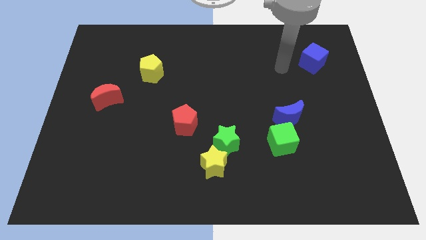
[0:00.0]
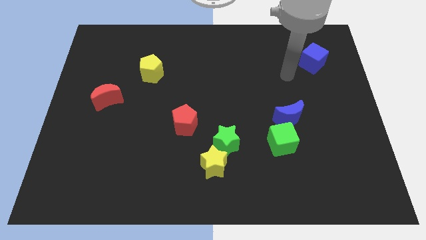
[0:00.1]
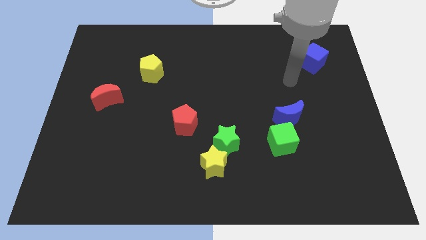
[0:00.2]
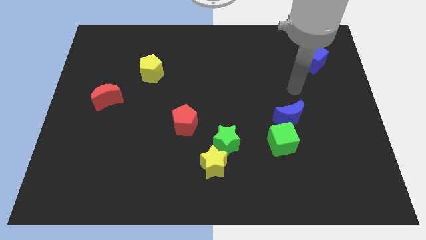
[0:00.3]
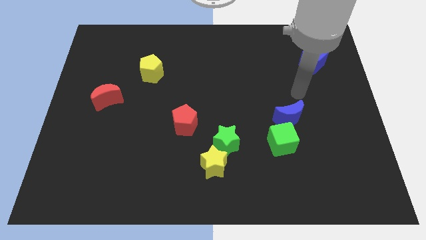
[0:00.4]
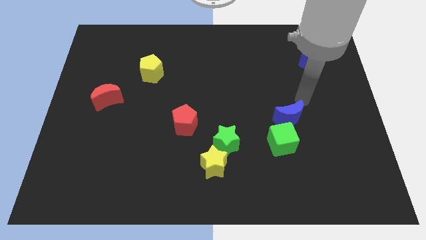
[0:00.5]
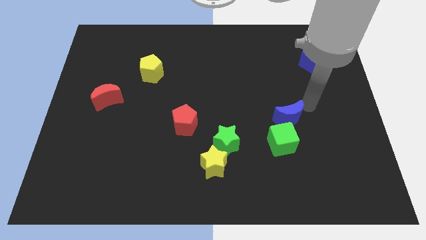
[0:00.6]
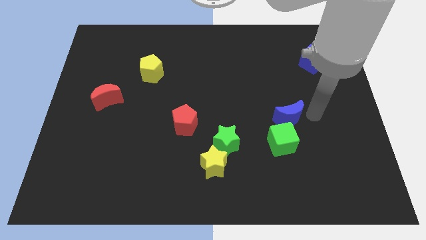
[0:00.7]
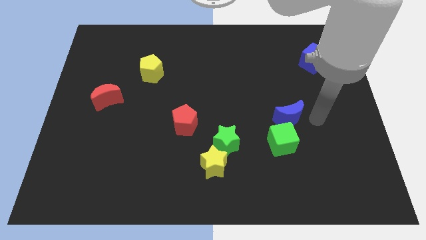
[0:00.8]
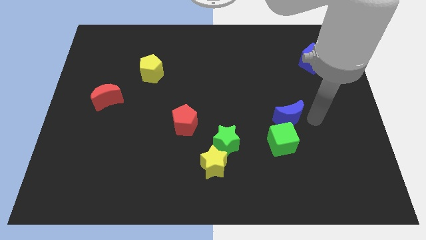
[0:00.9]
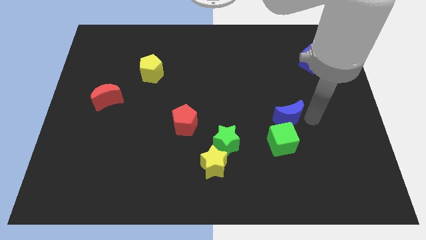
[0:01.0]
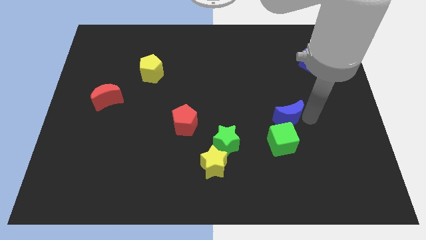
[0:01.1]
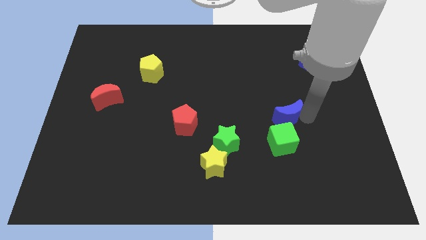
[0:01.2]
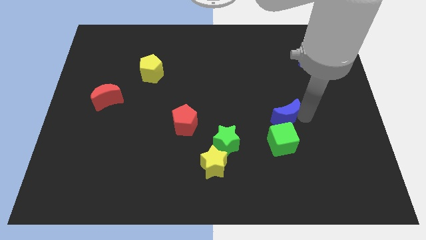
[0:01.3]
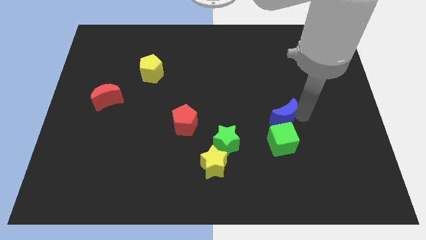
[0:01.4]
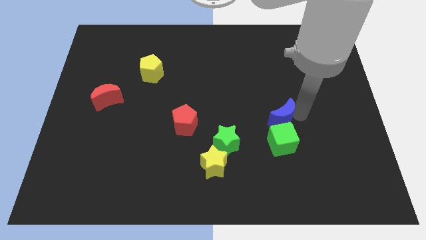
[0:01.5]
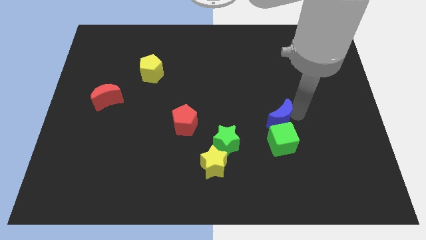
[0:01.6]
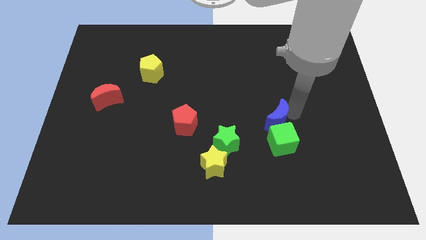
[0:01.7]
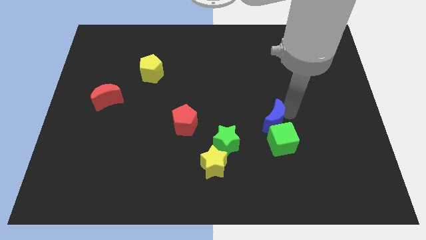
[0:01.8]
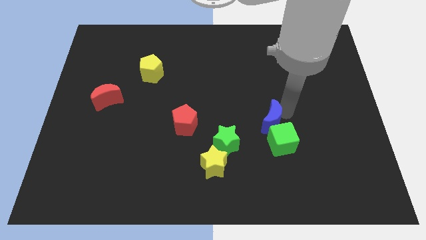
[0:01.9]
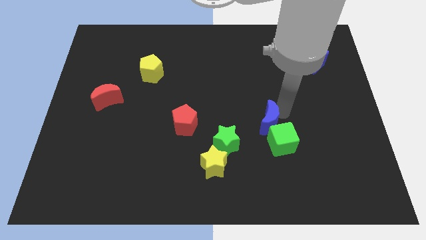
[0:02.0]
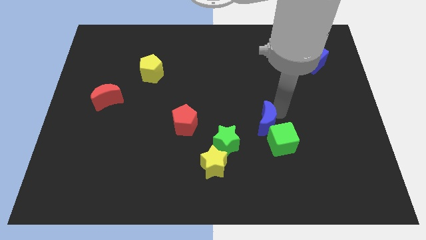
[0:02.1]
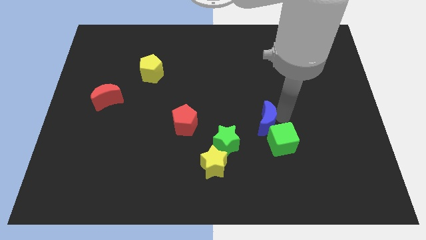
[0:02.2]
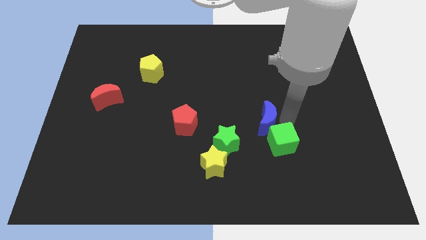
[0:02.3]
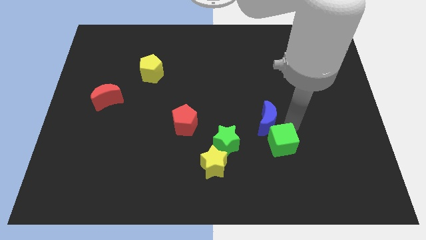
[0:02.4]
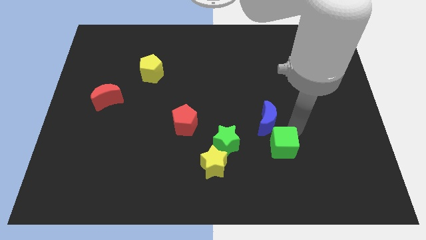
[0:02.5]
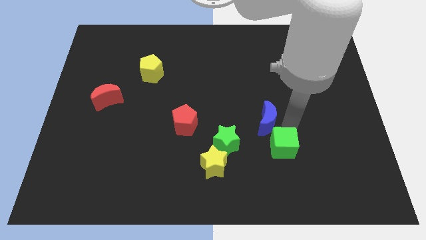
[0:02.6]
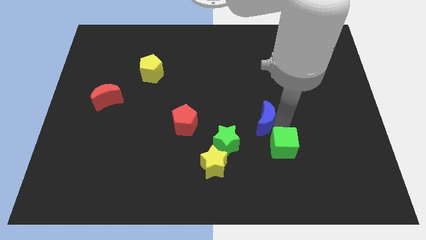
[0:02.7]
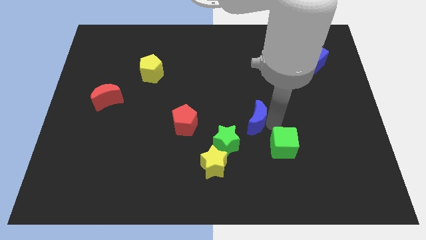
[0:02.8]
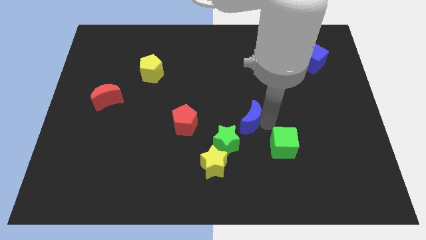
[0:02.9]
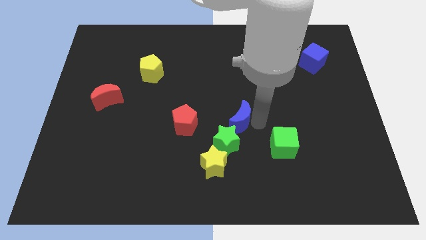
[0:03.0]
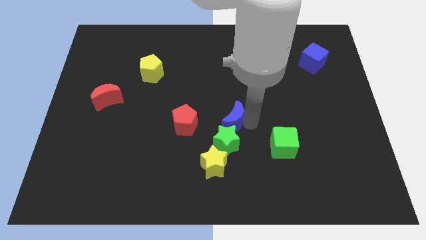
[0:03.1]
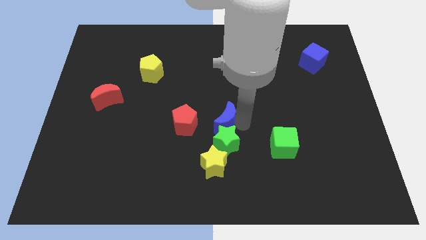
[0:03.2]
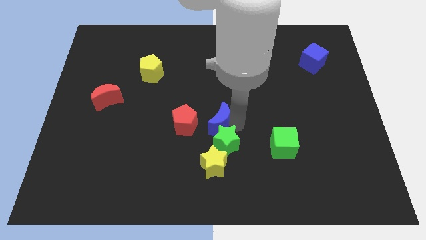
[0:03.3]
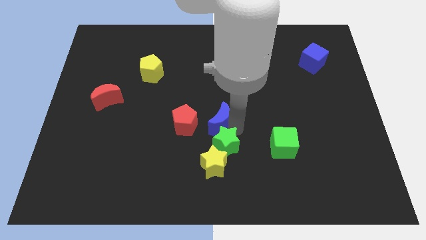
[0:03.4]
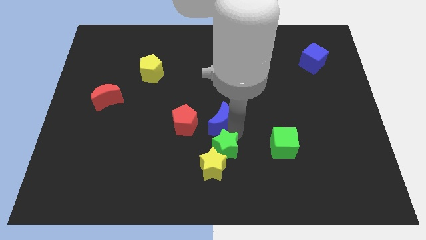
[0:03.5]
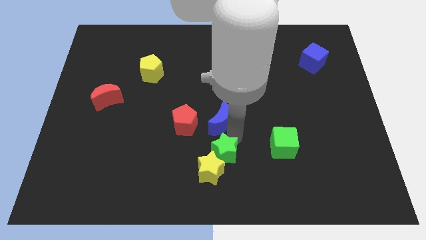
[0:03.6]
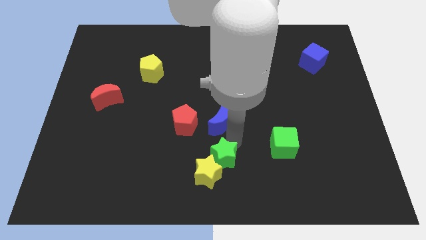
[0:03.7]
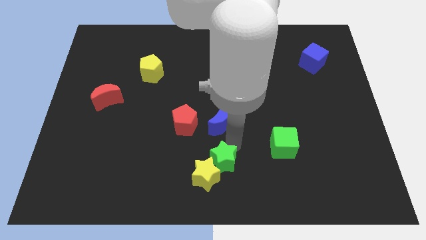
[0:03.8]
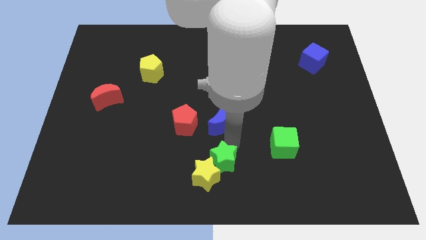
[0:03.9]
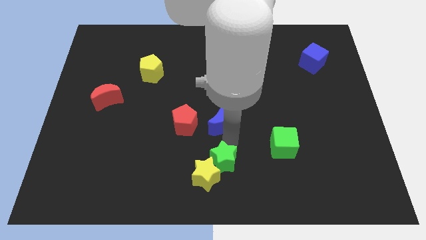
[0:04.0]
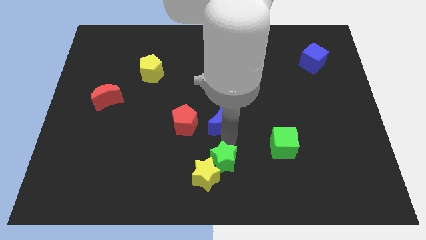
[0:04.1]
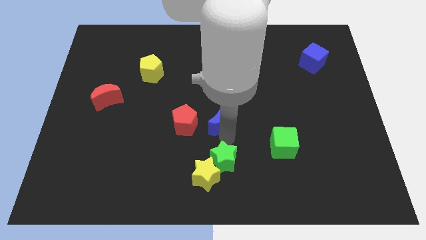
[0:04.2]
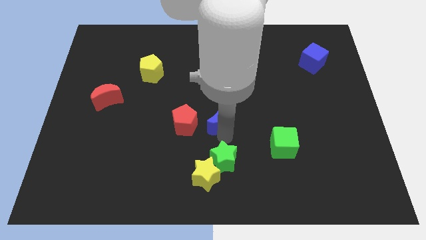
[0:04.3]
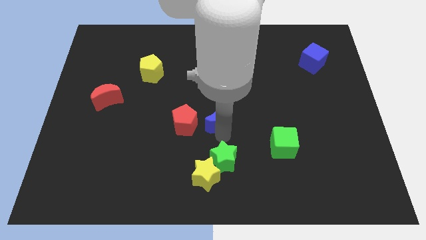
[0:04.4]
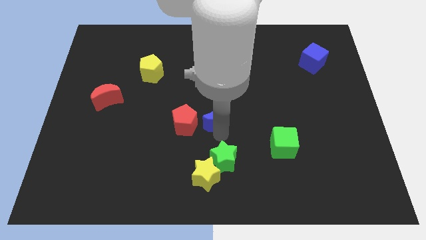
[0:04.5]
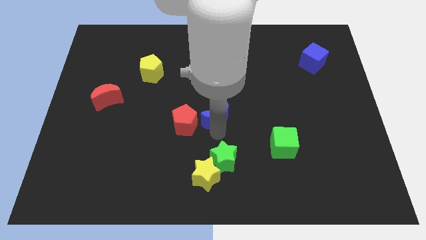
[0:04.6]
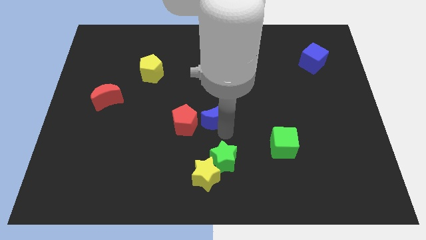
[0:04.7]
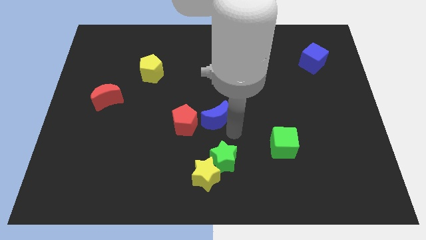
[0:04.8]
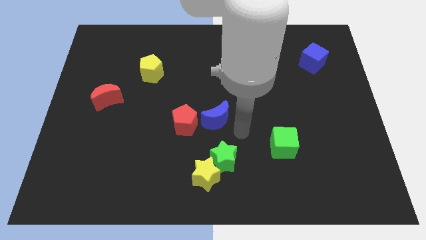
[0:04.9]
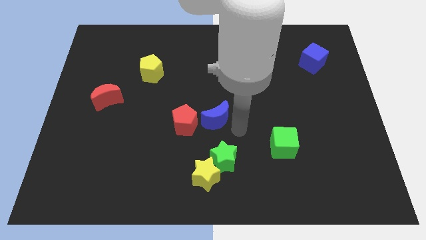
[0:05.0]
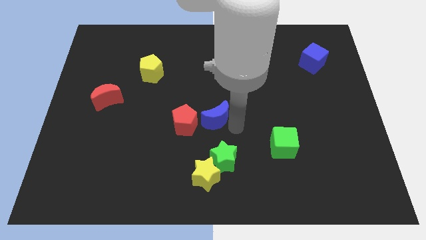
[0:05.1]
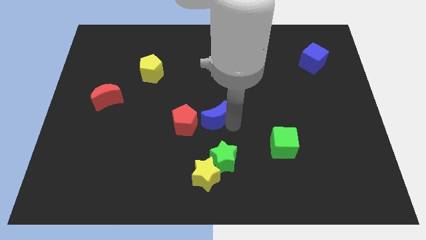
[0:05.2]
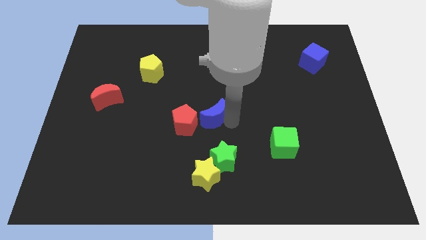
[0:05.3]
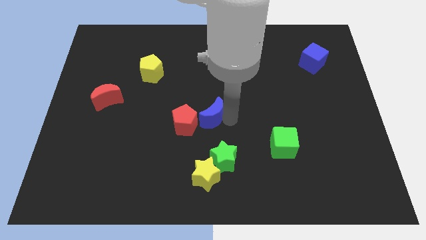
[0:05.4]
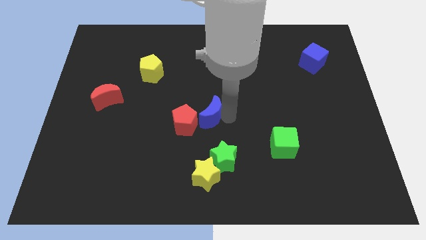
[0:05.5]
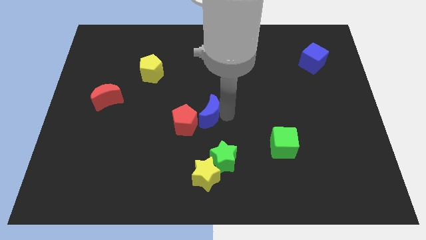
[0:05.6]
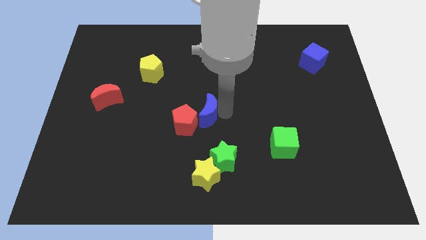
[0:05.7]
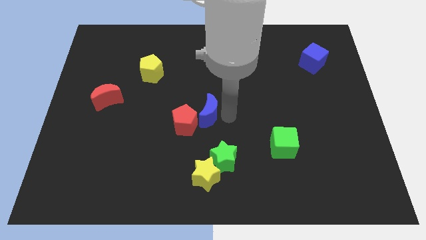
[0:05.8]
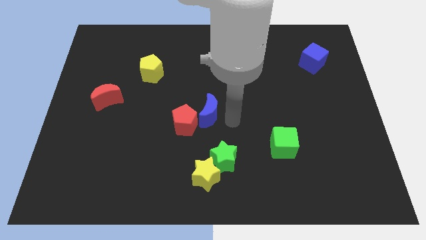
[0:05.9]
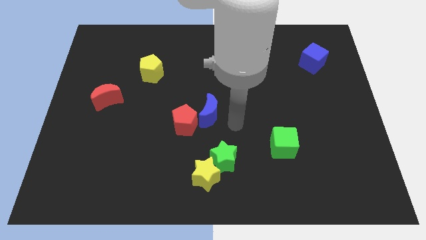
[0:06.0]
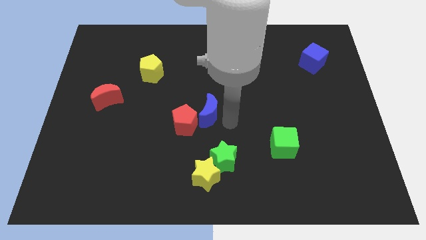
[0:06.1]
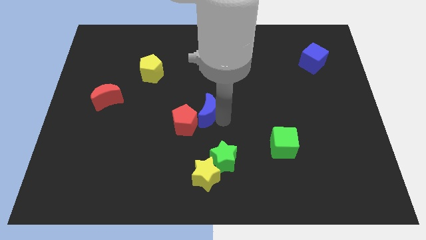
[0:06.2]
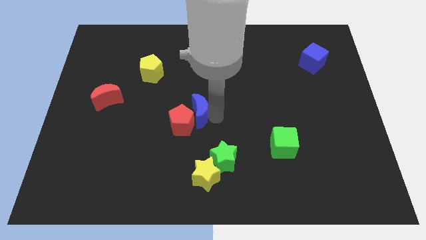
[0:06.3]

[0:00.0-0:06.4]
slide the blue moon to the left

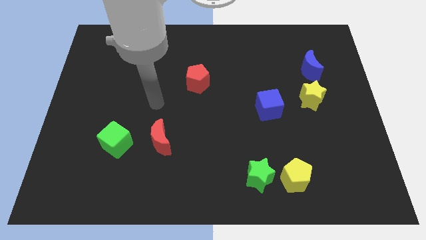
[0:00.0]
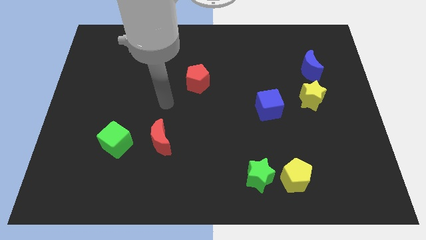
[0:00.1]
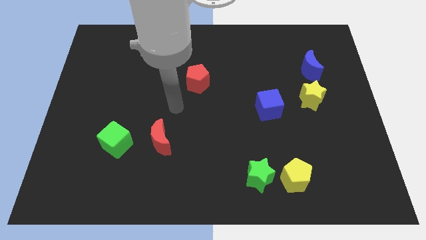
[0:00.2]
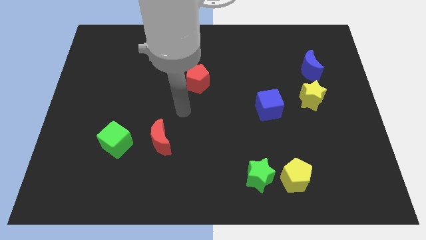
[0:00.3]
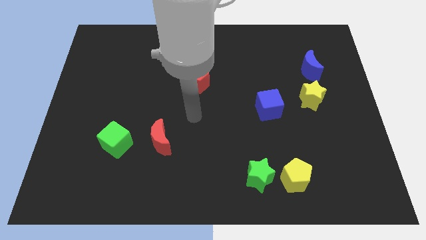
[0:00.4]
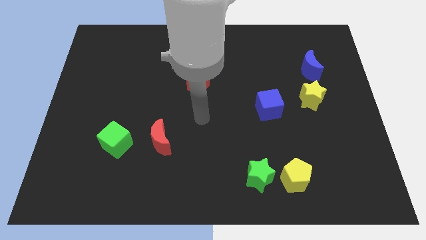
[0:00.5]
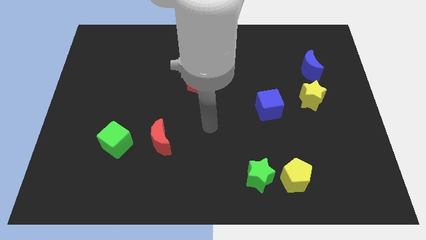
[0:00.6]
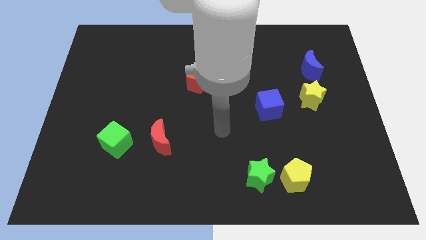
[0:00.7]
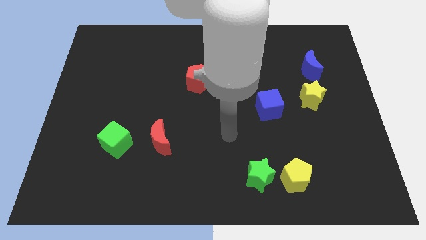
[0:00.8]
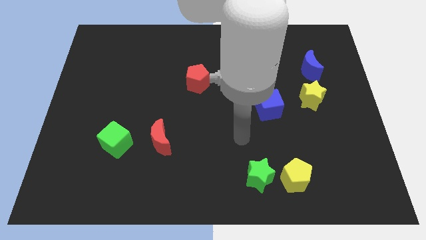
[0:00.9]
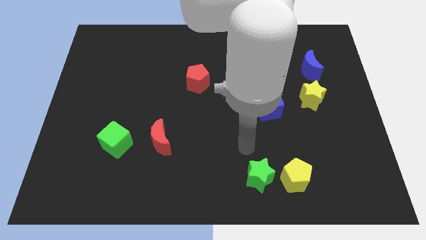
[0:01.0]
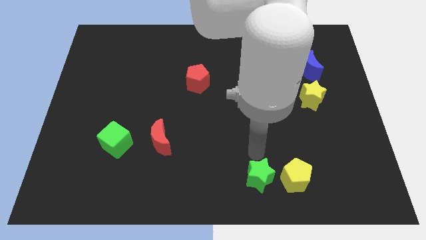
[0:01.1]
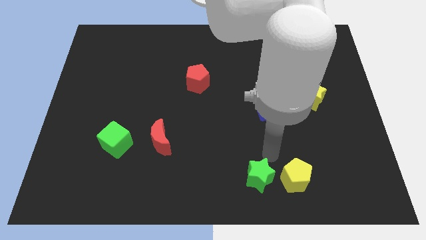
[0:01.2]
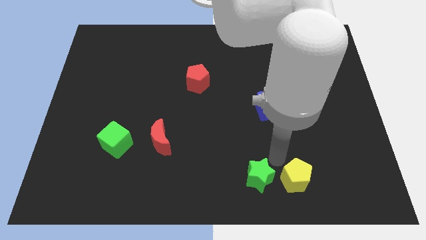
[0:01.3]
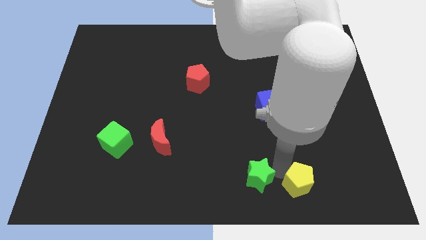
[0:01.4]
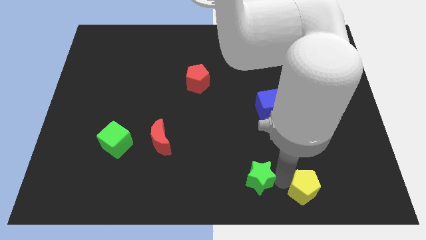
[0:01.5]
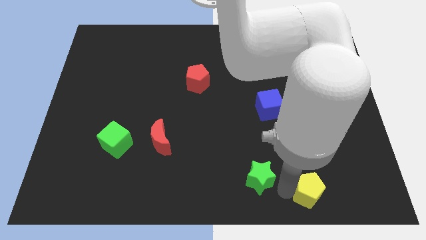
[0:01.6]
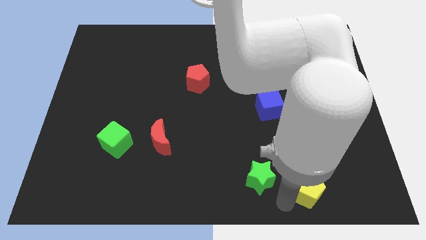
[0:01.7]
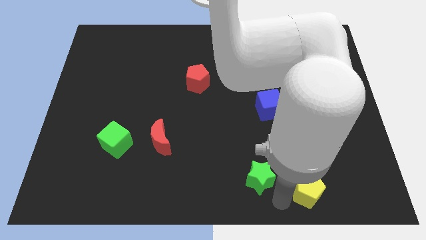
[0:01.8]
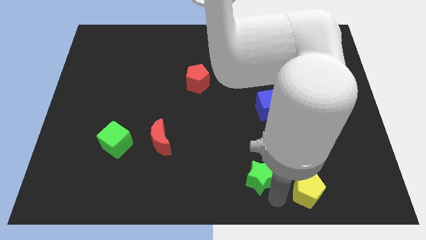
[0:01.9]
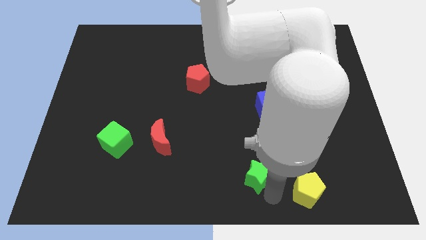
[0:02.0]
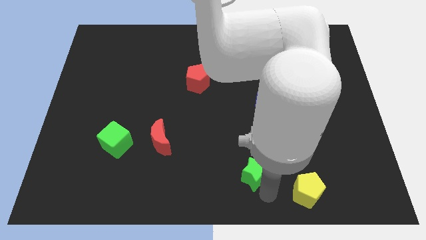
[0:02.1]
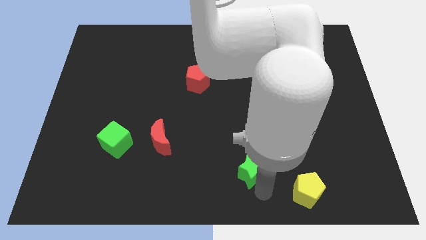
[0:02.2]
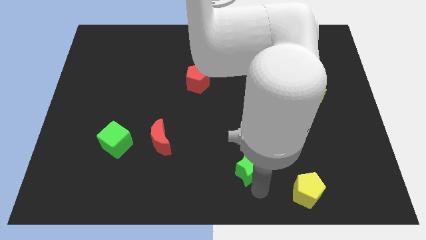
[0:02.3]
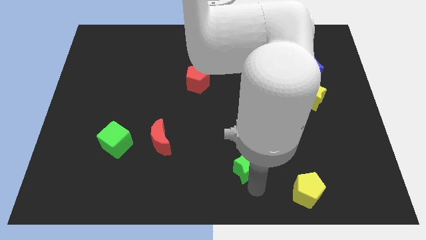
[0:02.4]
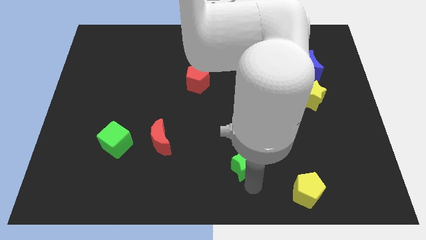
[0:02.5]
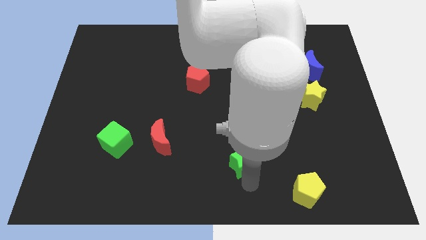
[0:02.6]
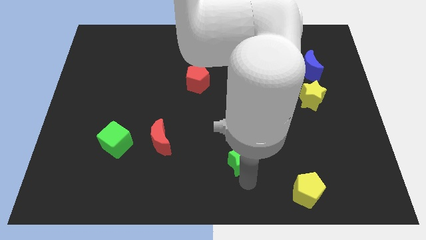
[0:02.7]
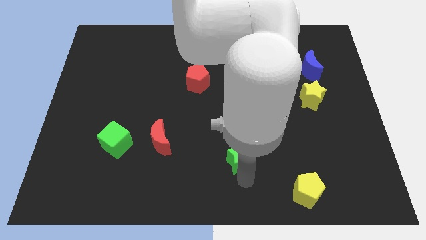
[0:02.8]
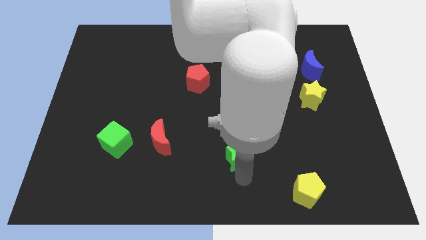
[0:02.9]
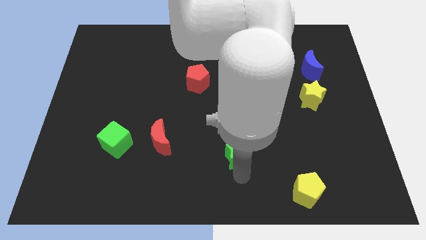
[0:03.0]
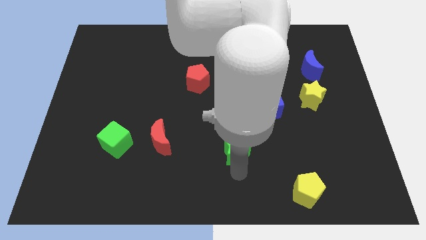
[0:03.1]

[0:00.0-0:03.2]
slide the green star up and then left a little
